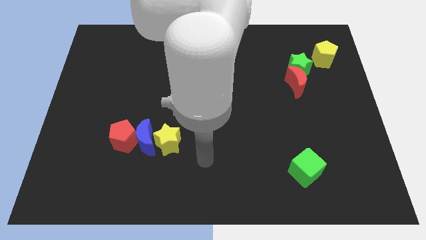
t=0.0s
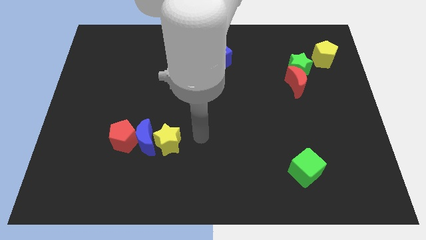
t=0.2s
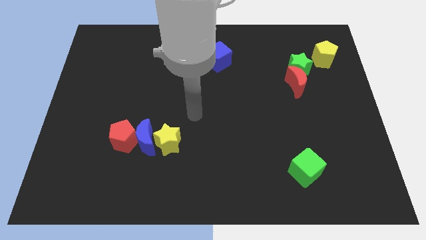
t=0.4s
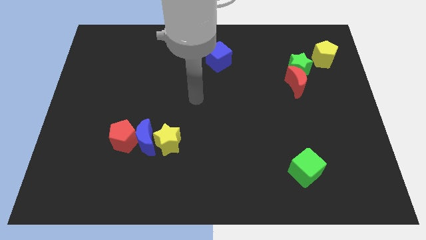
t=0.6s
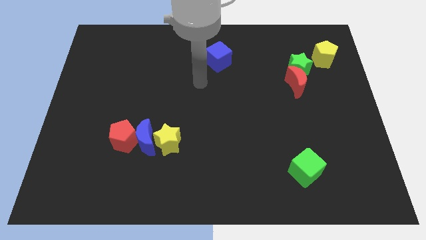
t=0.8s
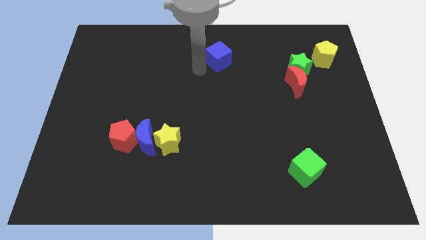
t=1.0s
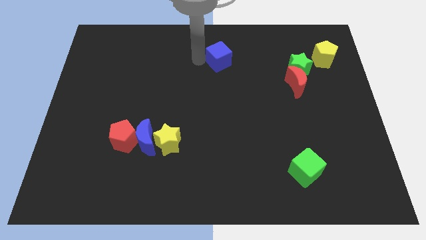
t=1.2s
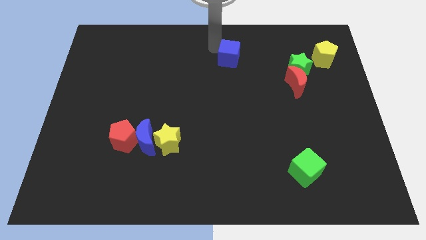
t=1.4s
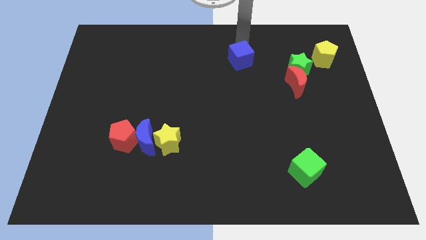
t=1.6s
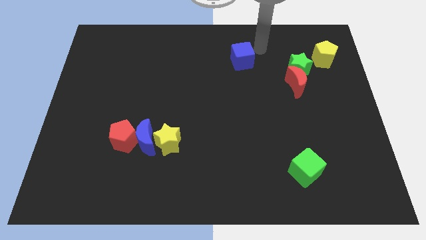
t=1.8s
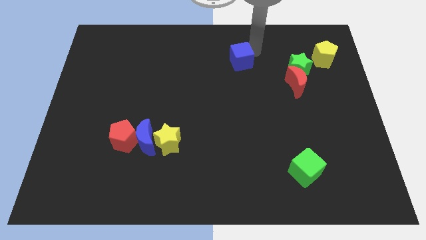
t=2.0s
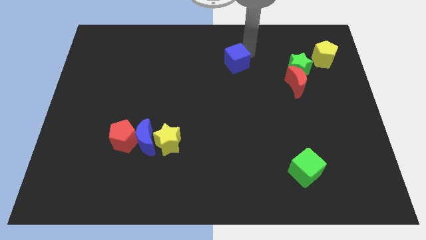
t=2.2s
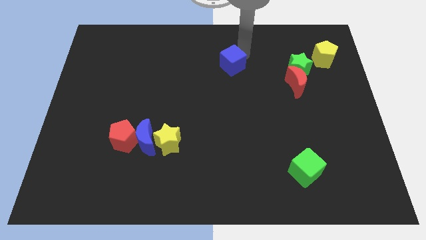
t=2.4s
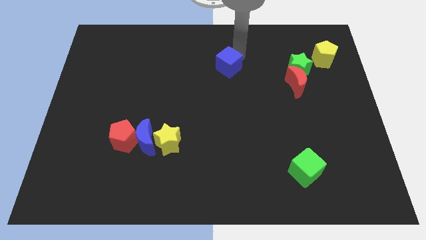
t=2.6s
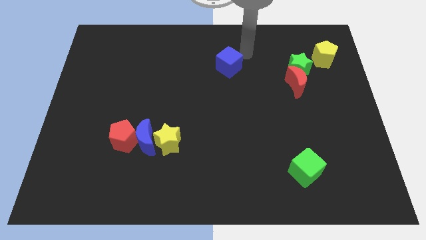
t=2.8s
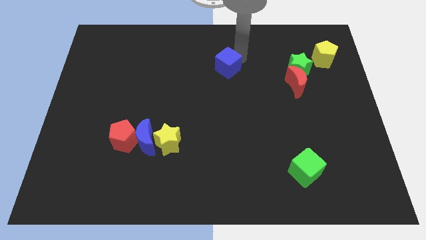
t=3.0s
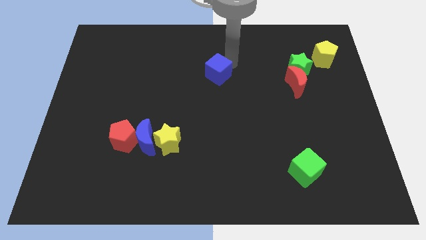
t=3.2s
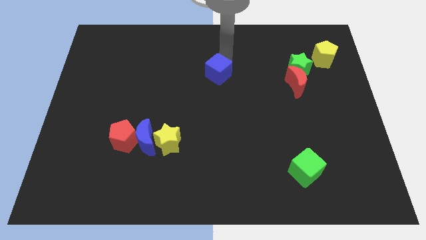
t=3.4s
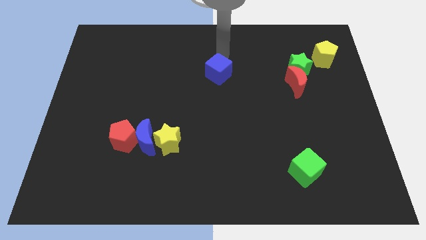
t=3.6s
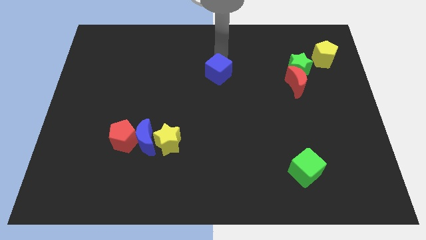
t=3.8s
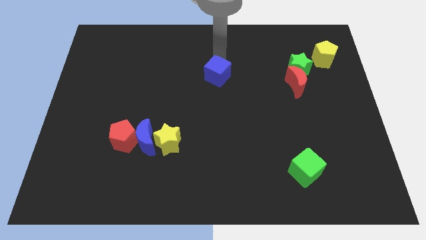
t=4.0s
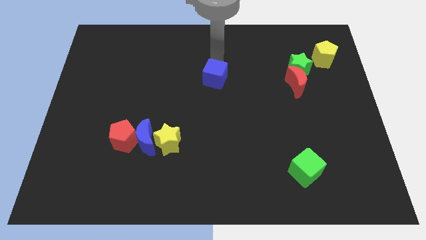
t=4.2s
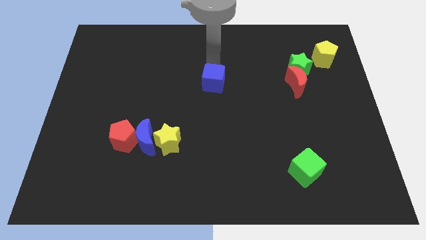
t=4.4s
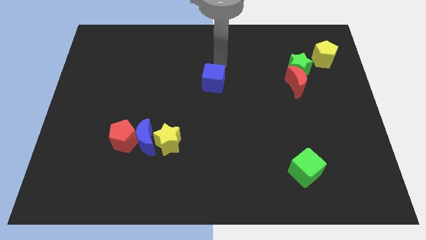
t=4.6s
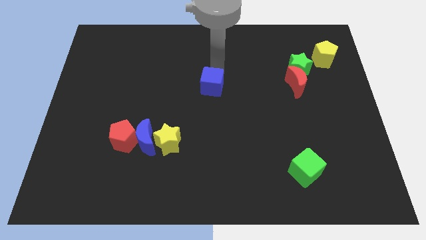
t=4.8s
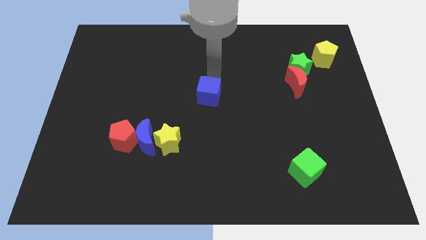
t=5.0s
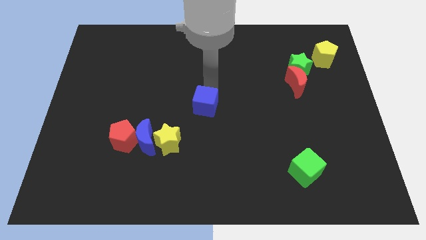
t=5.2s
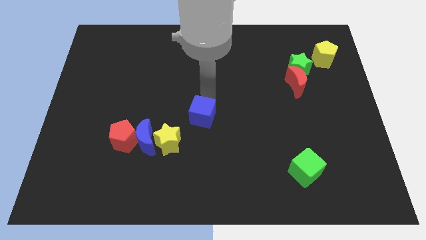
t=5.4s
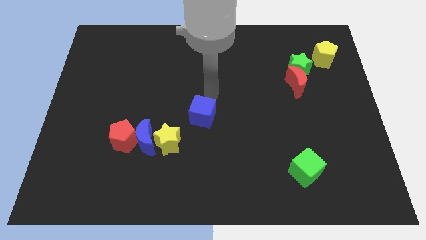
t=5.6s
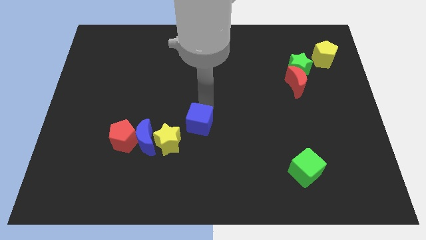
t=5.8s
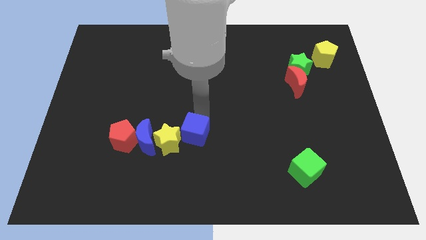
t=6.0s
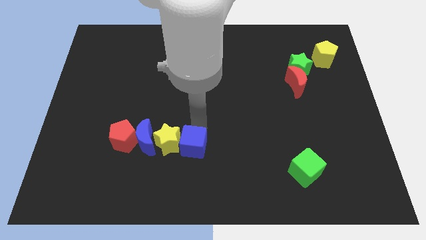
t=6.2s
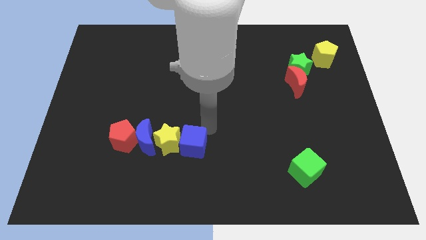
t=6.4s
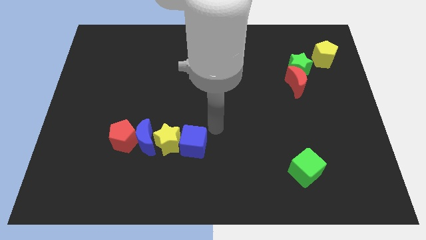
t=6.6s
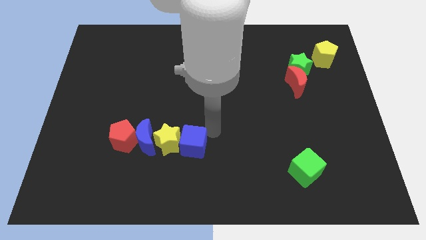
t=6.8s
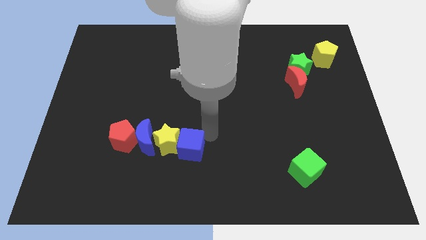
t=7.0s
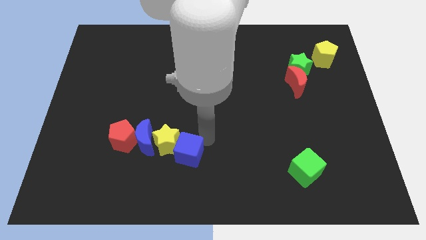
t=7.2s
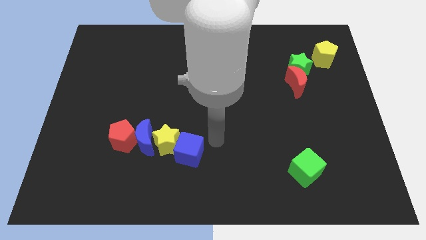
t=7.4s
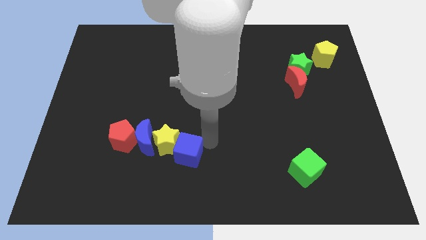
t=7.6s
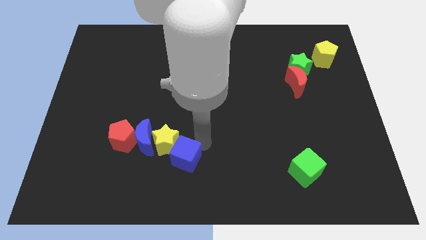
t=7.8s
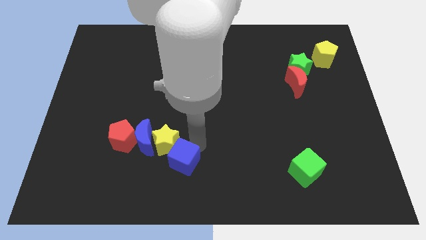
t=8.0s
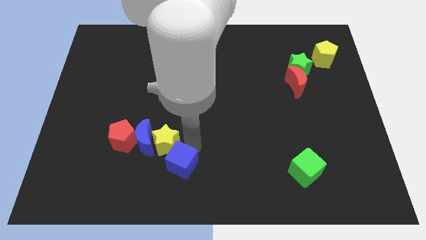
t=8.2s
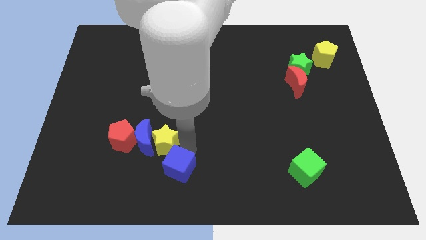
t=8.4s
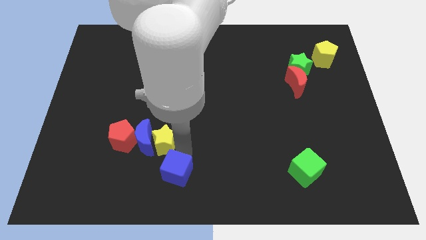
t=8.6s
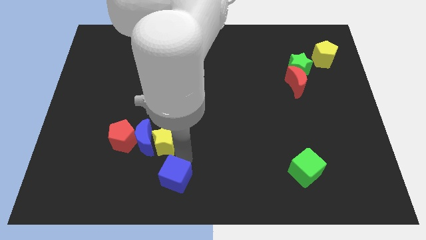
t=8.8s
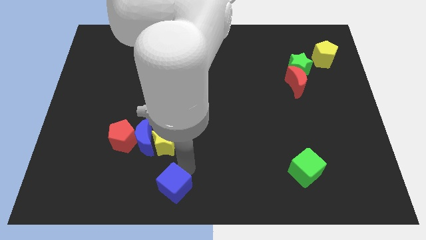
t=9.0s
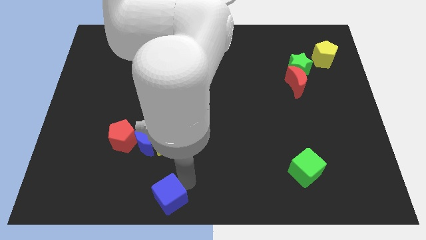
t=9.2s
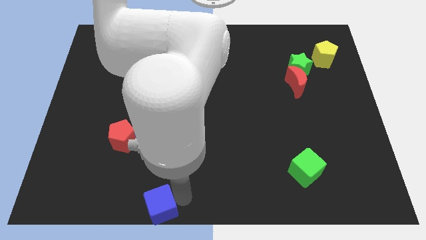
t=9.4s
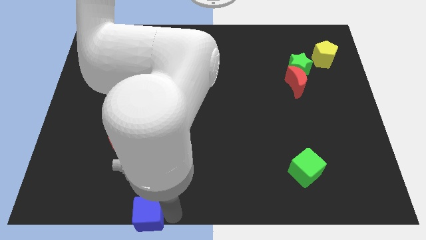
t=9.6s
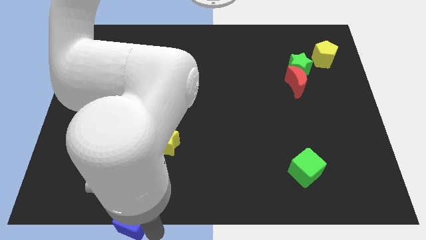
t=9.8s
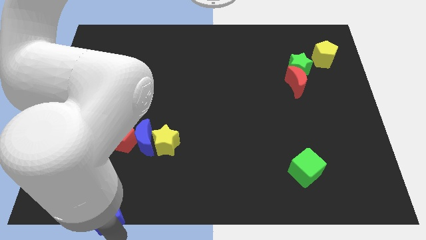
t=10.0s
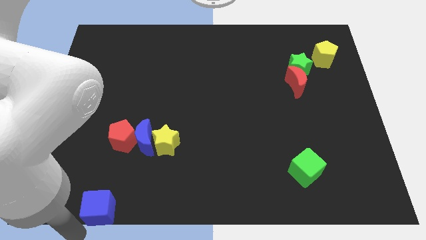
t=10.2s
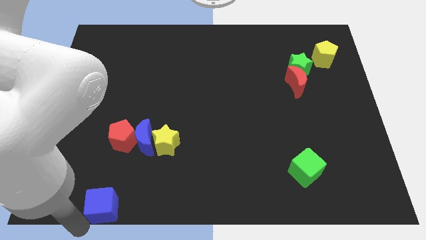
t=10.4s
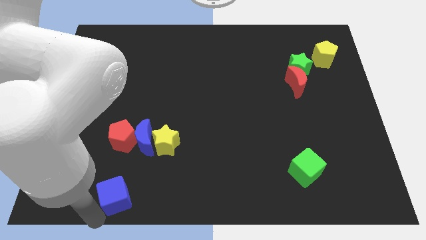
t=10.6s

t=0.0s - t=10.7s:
put the blue cube below the blue moon

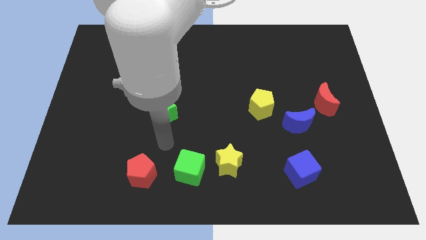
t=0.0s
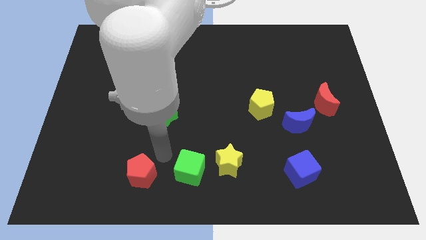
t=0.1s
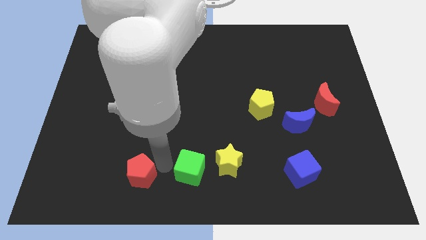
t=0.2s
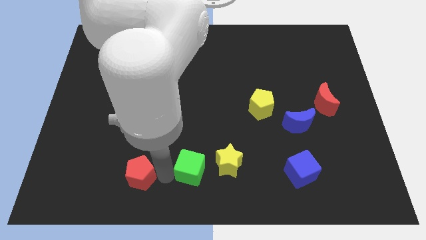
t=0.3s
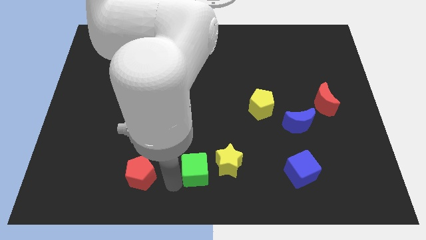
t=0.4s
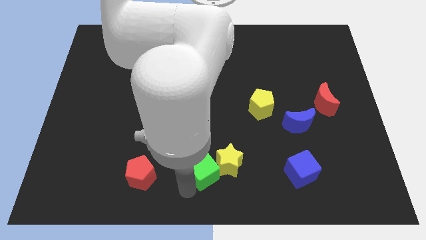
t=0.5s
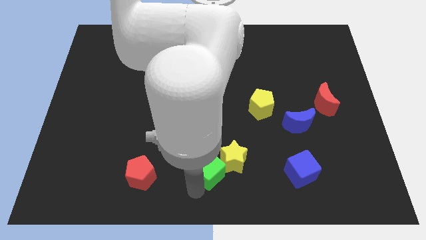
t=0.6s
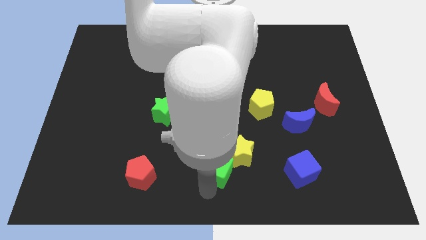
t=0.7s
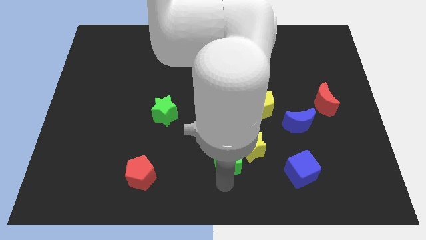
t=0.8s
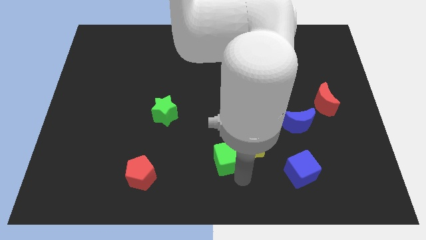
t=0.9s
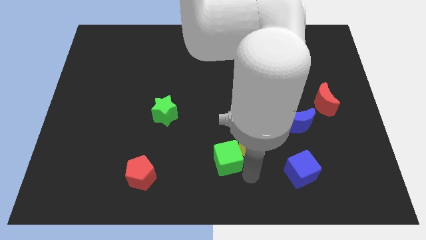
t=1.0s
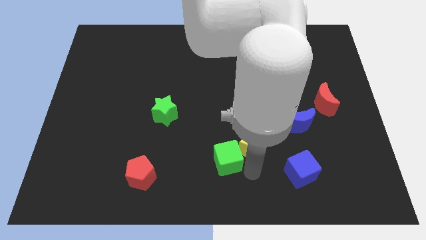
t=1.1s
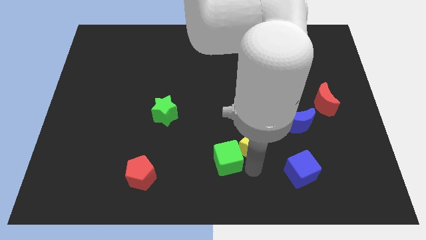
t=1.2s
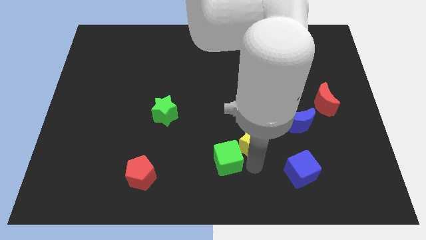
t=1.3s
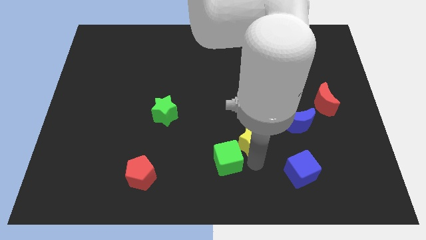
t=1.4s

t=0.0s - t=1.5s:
move the yellow star just left of the blue moon
